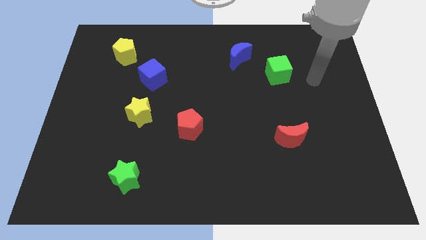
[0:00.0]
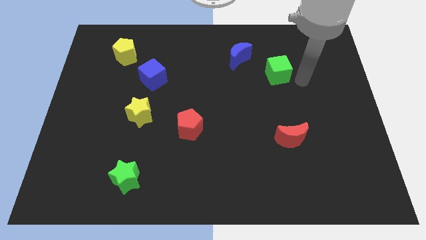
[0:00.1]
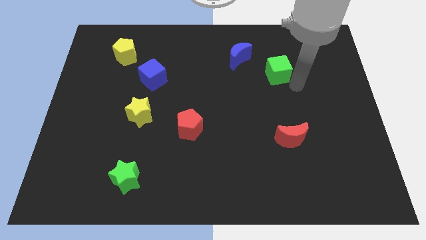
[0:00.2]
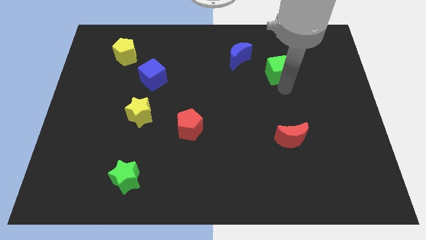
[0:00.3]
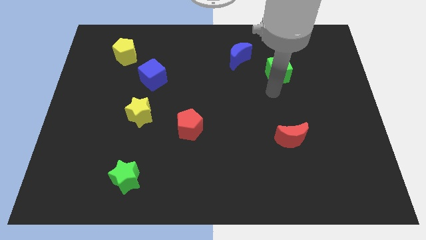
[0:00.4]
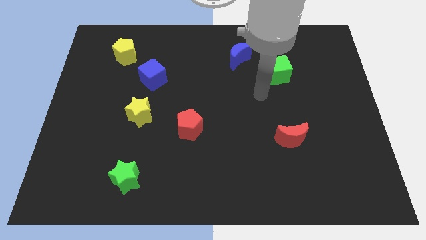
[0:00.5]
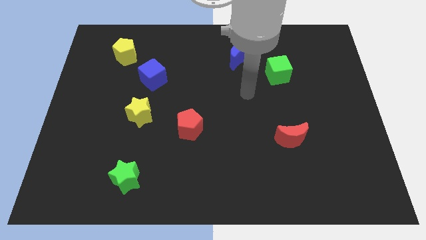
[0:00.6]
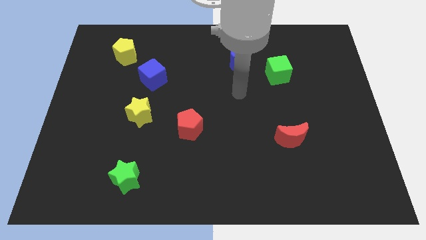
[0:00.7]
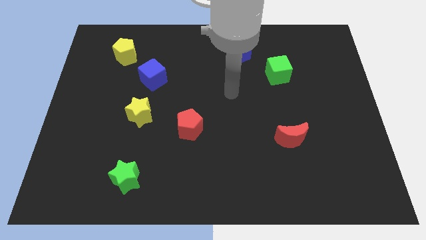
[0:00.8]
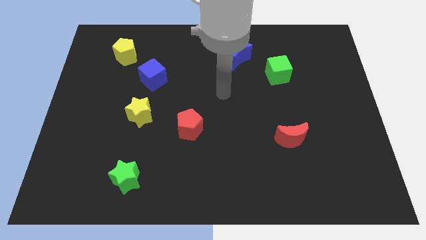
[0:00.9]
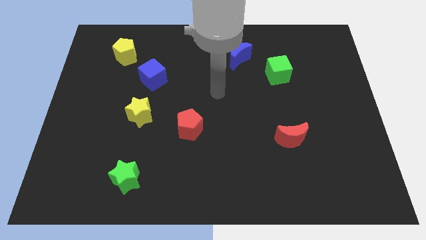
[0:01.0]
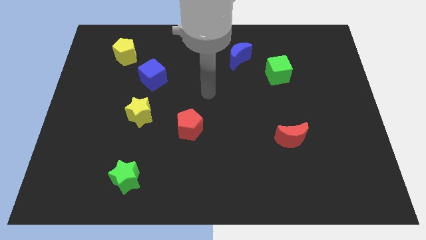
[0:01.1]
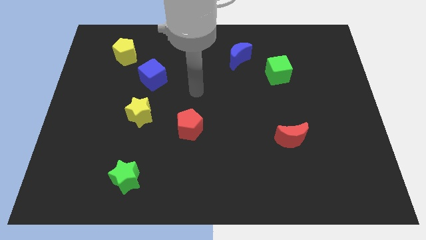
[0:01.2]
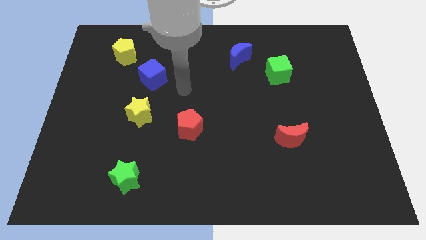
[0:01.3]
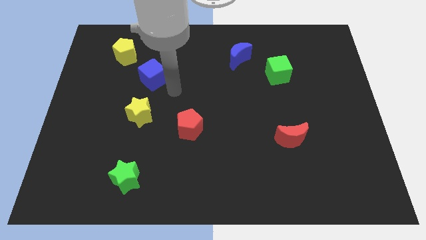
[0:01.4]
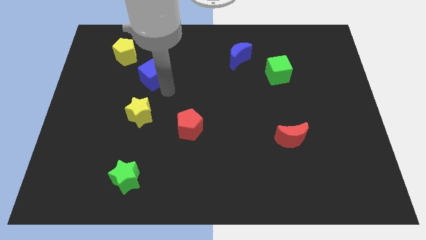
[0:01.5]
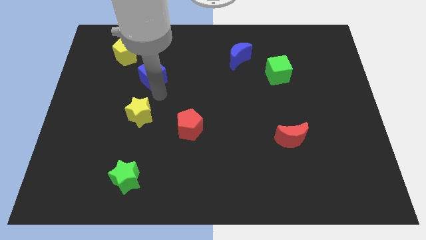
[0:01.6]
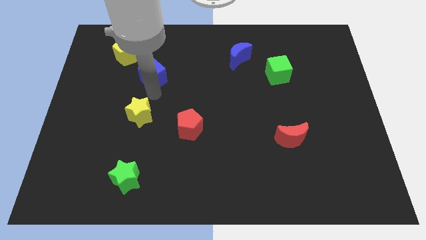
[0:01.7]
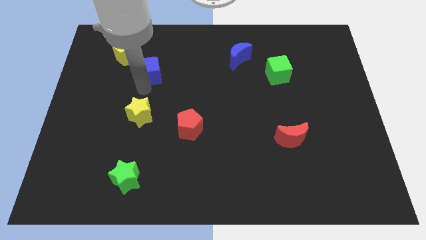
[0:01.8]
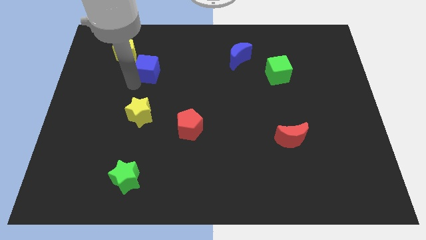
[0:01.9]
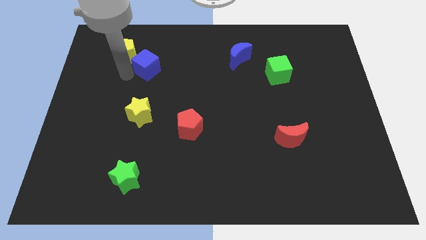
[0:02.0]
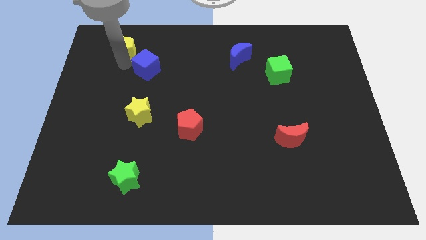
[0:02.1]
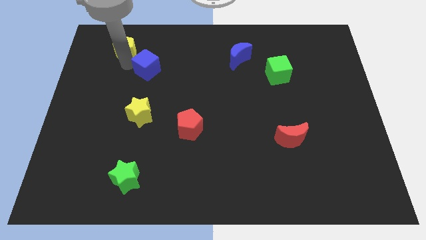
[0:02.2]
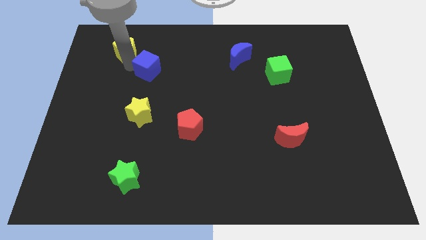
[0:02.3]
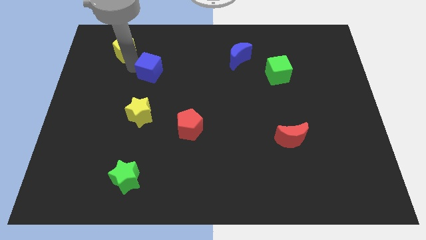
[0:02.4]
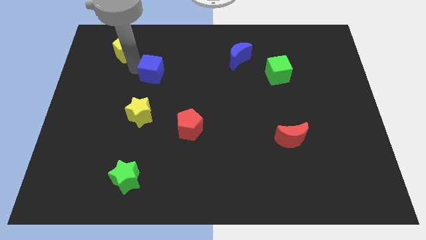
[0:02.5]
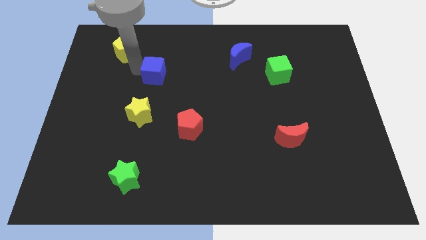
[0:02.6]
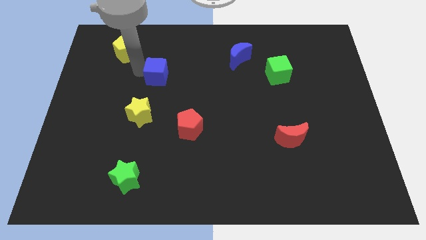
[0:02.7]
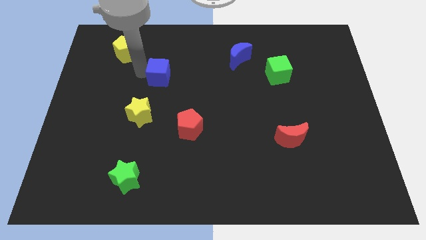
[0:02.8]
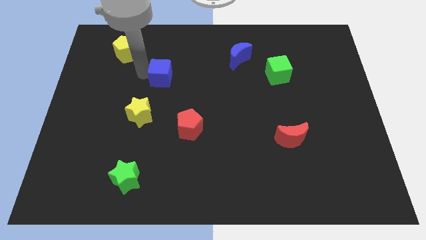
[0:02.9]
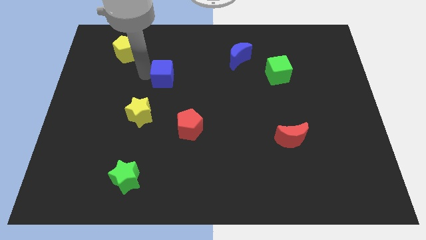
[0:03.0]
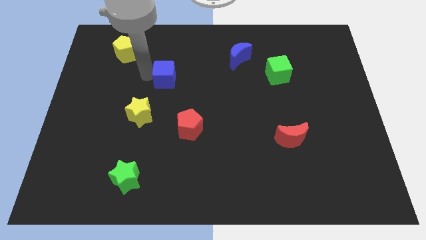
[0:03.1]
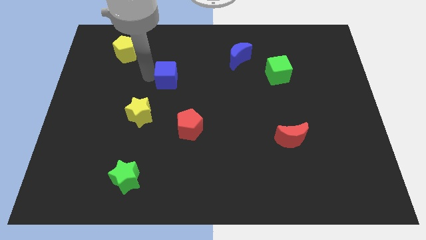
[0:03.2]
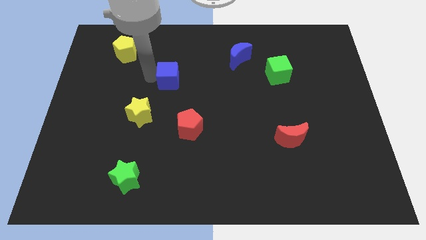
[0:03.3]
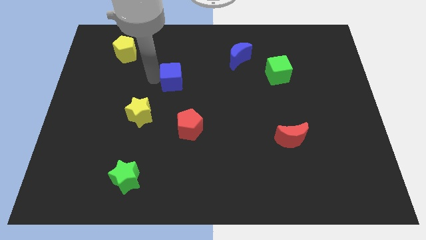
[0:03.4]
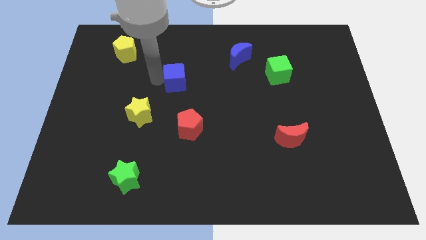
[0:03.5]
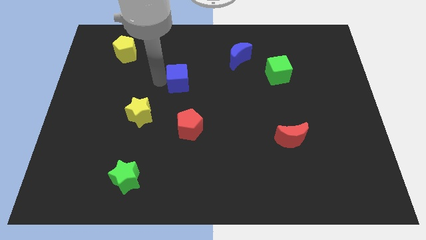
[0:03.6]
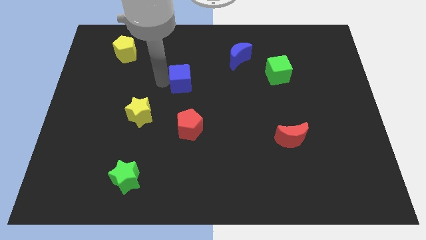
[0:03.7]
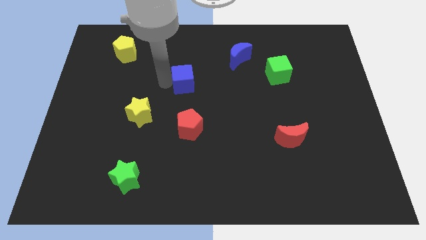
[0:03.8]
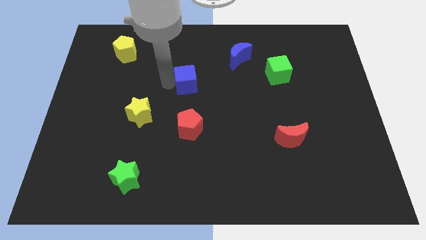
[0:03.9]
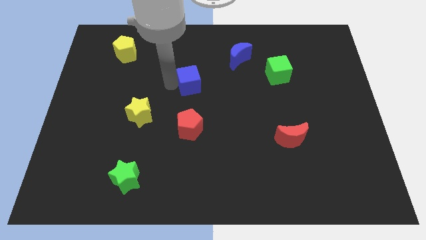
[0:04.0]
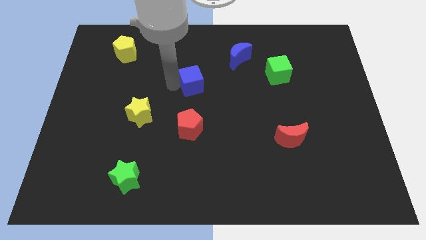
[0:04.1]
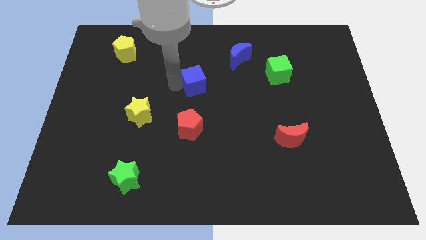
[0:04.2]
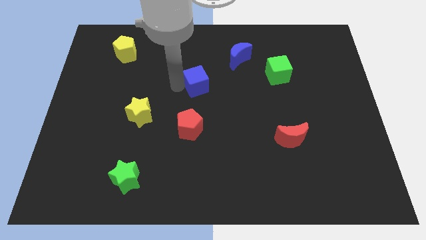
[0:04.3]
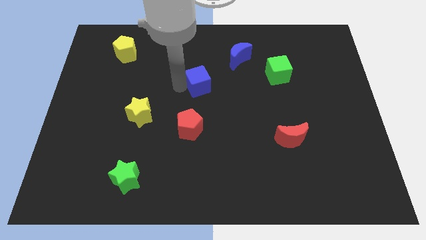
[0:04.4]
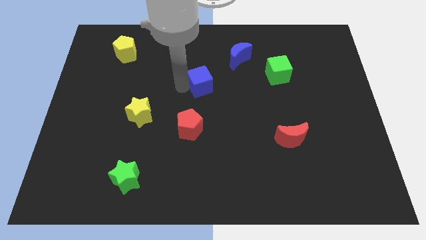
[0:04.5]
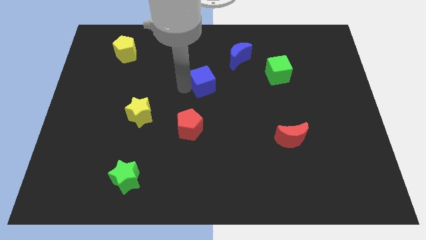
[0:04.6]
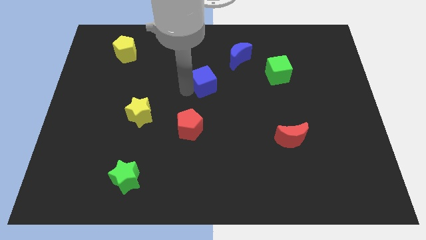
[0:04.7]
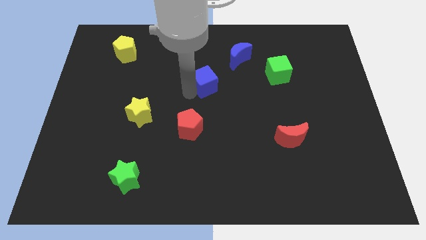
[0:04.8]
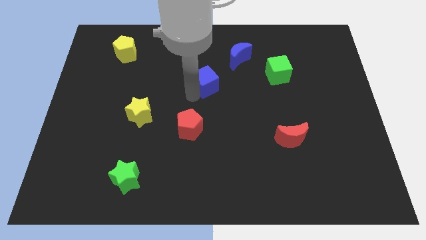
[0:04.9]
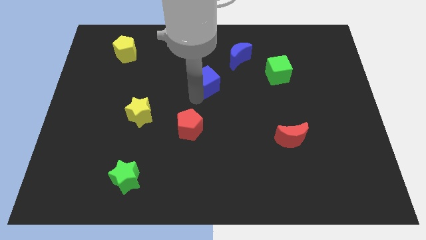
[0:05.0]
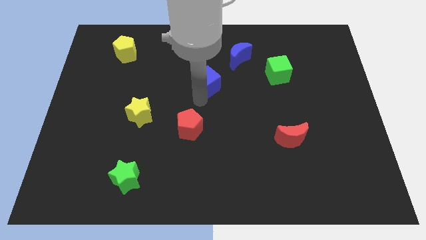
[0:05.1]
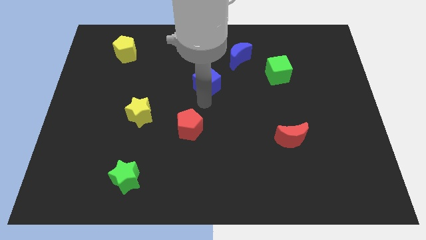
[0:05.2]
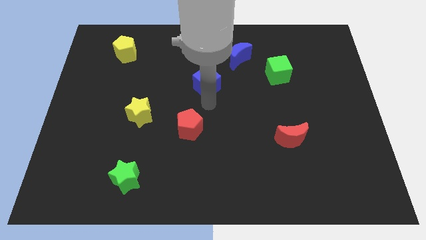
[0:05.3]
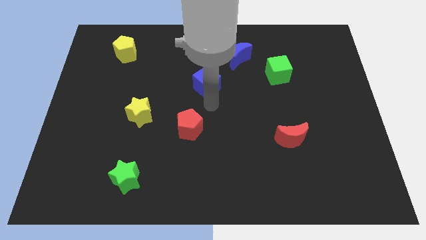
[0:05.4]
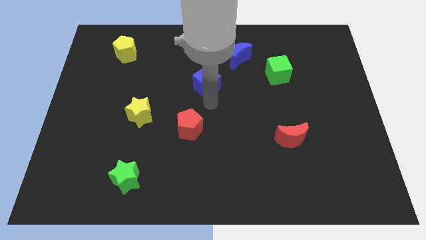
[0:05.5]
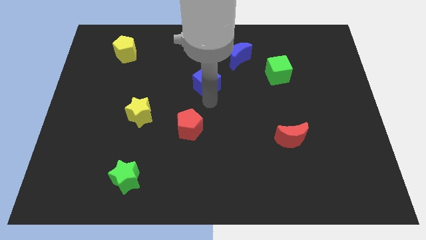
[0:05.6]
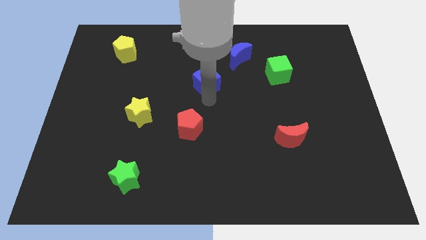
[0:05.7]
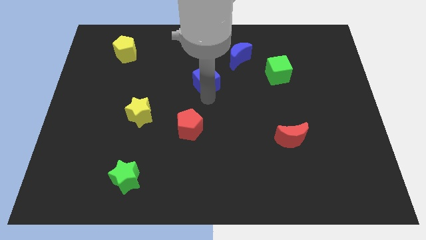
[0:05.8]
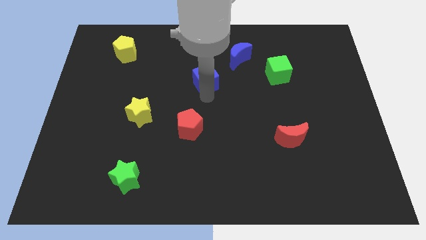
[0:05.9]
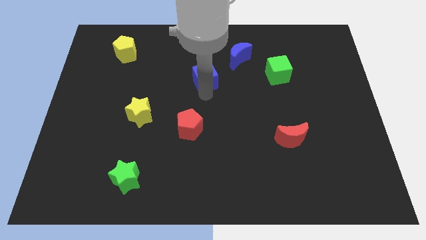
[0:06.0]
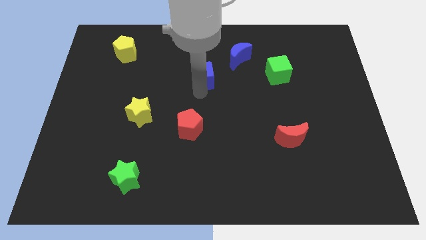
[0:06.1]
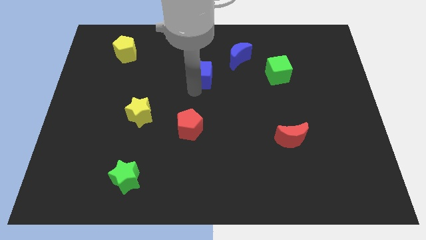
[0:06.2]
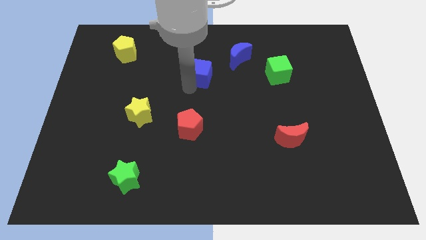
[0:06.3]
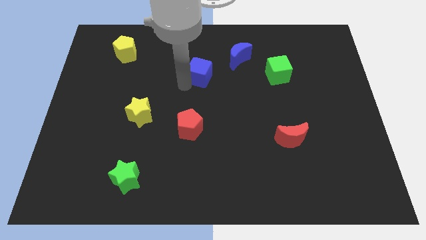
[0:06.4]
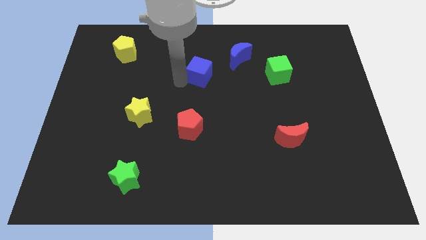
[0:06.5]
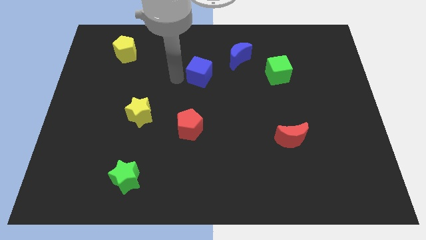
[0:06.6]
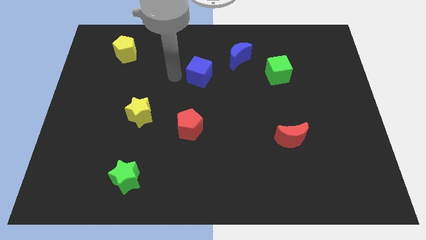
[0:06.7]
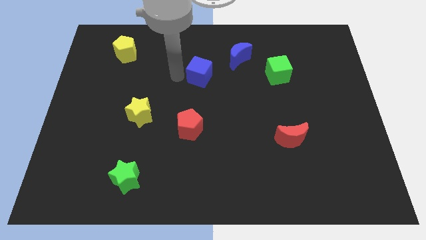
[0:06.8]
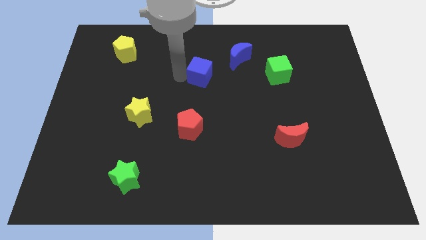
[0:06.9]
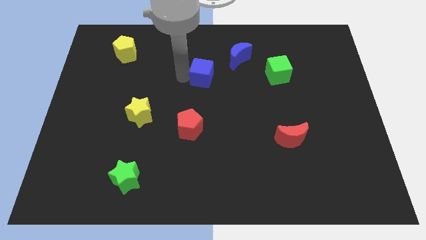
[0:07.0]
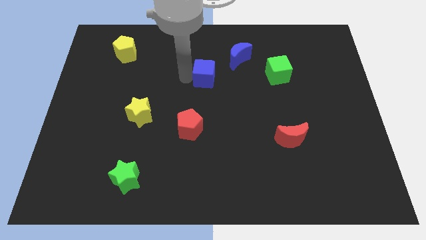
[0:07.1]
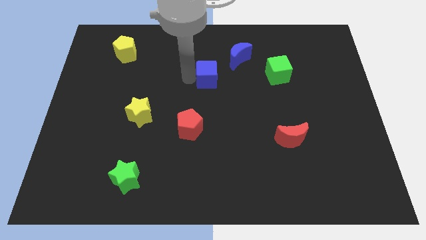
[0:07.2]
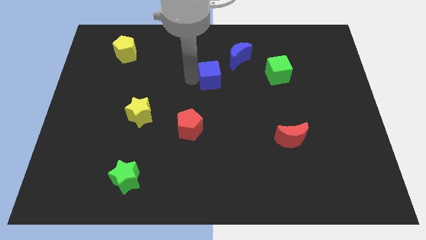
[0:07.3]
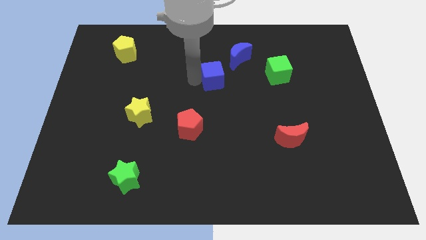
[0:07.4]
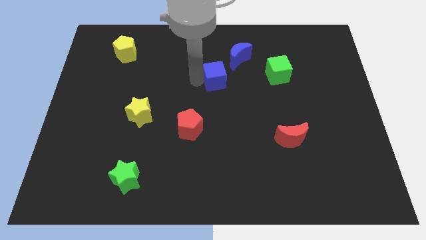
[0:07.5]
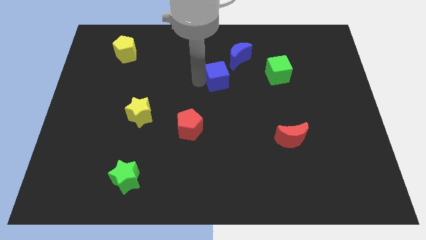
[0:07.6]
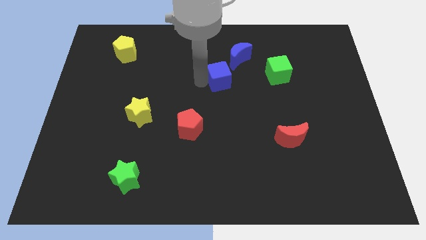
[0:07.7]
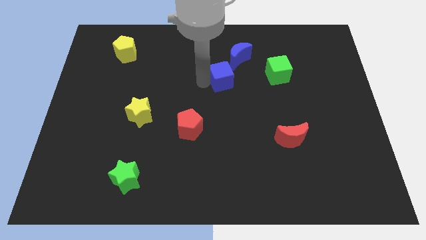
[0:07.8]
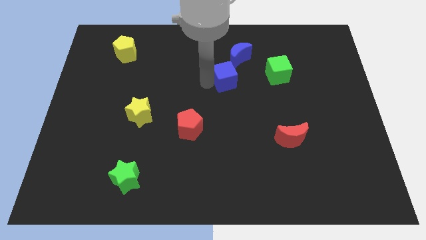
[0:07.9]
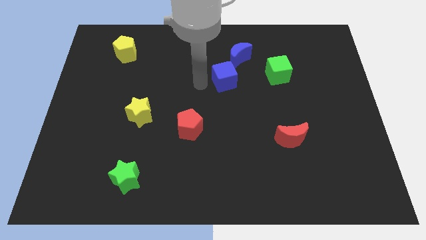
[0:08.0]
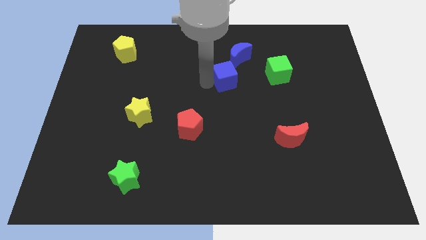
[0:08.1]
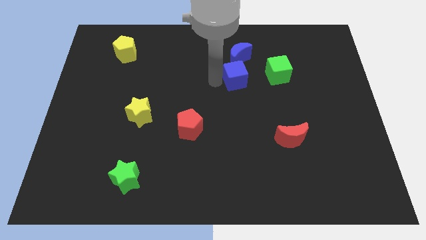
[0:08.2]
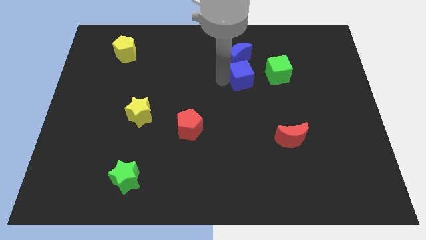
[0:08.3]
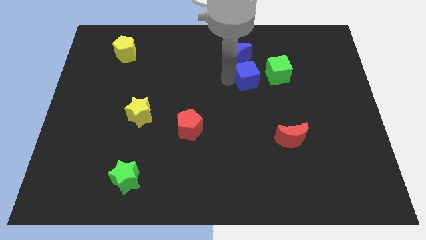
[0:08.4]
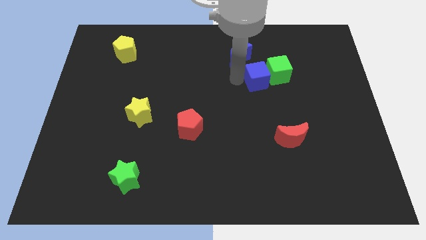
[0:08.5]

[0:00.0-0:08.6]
slide the blue cube to the green cube
